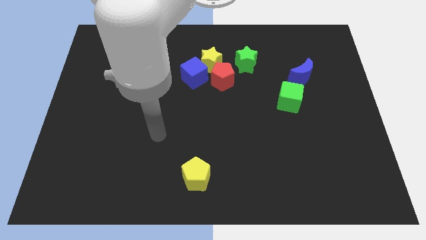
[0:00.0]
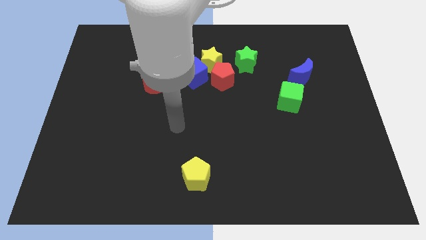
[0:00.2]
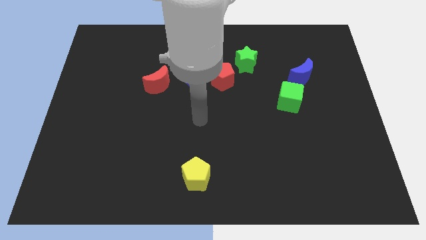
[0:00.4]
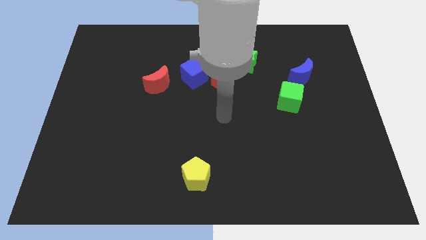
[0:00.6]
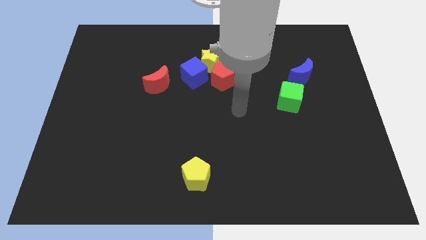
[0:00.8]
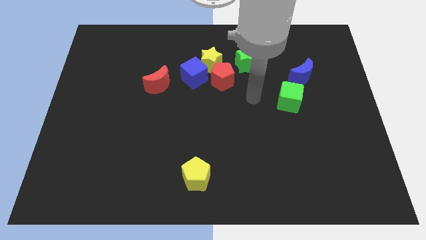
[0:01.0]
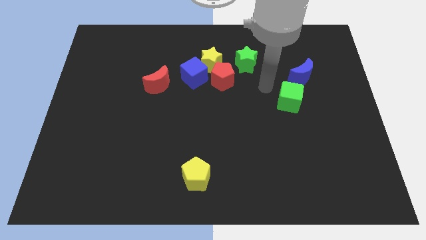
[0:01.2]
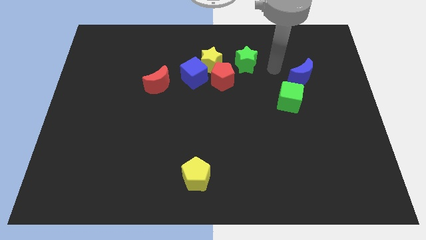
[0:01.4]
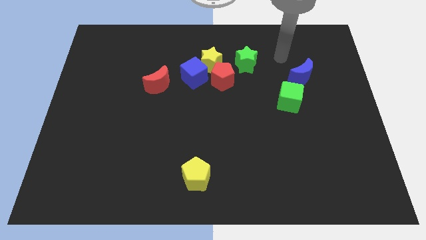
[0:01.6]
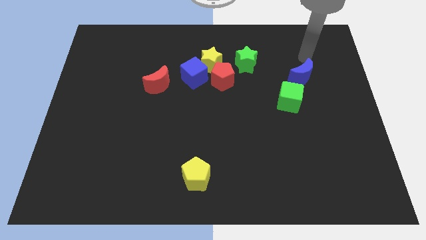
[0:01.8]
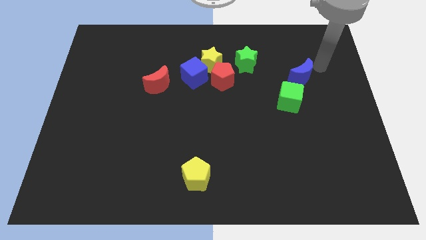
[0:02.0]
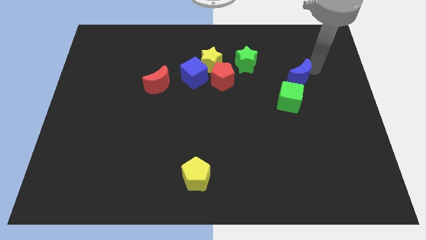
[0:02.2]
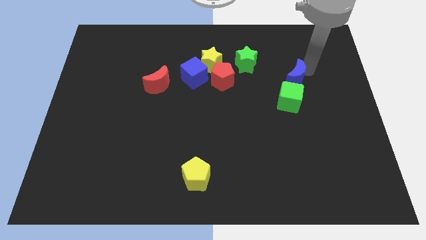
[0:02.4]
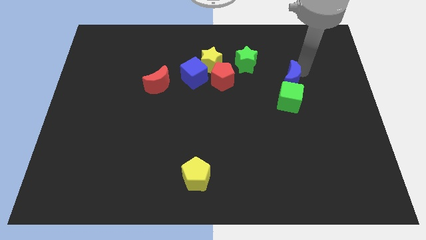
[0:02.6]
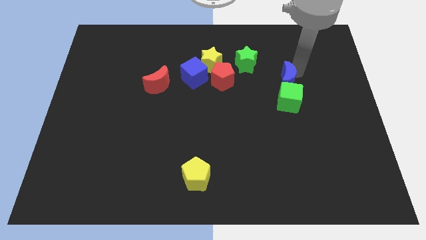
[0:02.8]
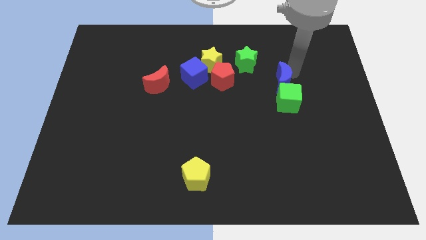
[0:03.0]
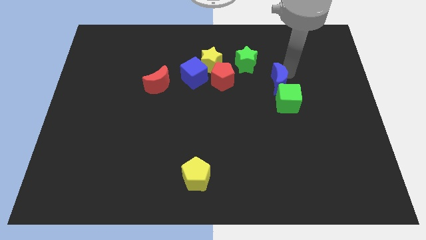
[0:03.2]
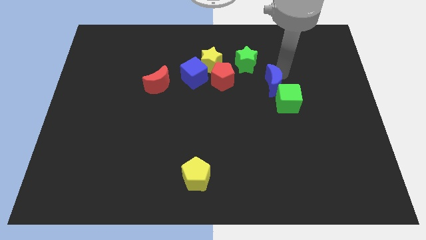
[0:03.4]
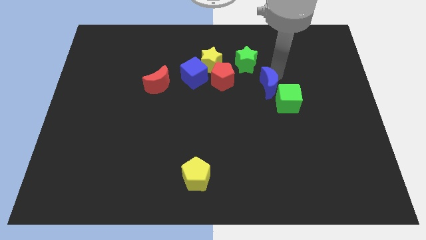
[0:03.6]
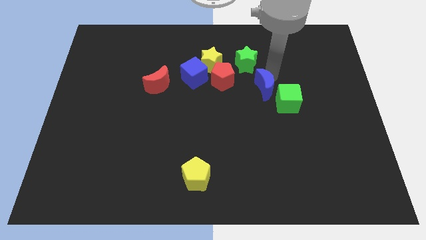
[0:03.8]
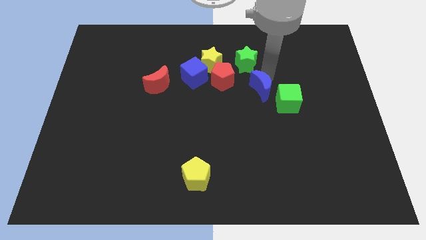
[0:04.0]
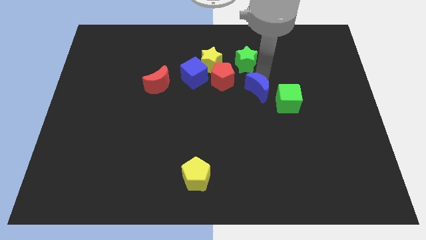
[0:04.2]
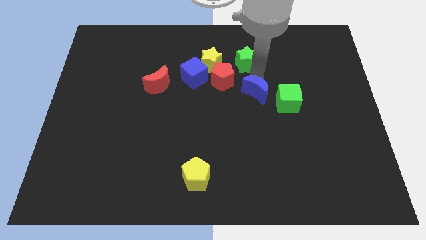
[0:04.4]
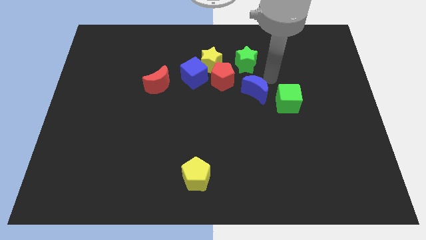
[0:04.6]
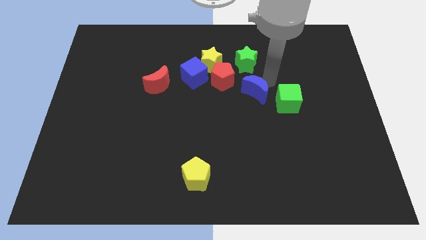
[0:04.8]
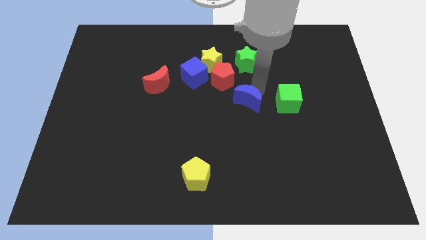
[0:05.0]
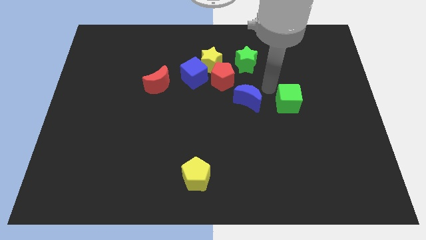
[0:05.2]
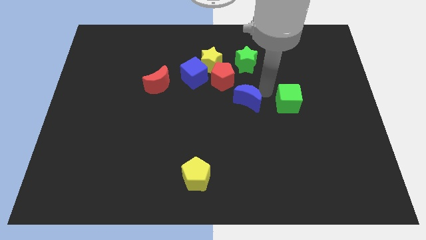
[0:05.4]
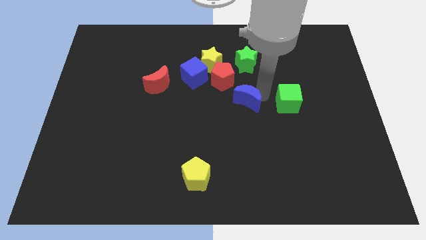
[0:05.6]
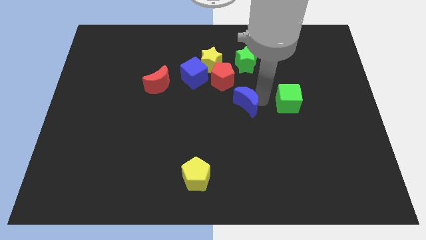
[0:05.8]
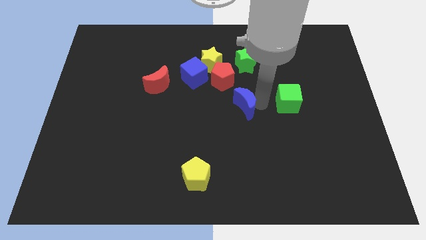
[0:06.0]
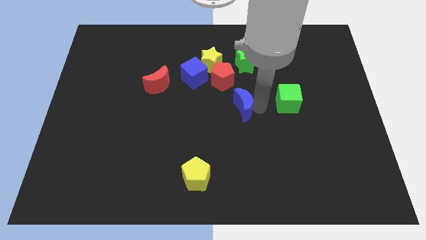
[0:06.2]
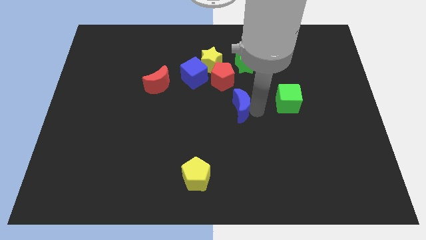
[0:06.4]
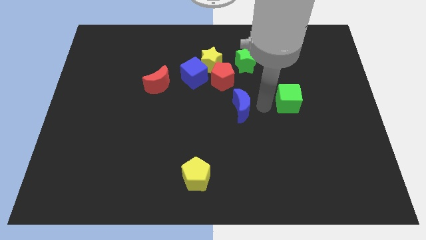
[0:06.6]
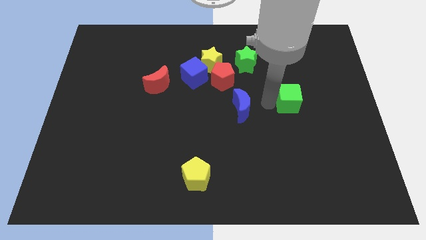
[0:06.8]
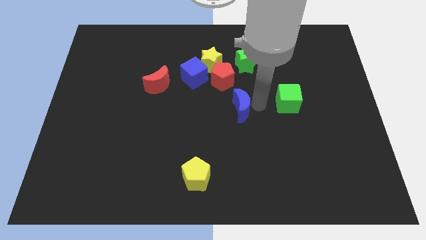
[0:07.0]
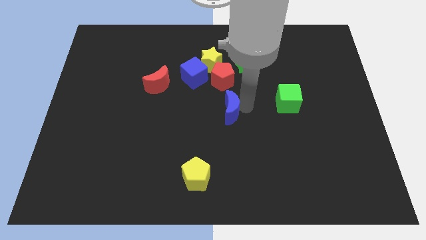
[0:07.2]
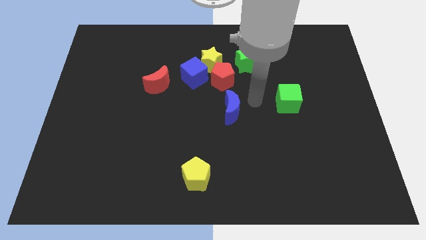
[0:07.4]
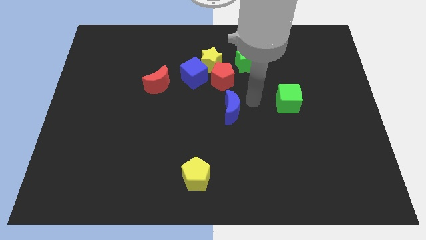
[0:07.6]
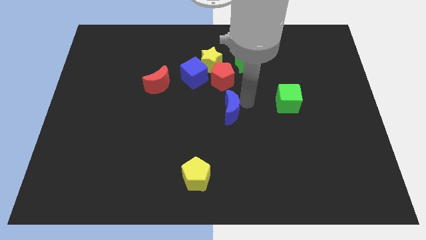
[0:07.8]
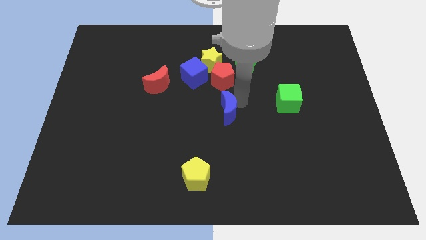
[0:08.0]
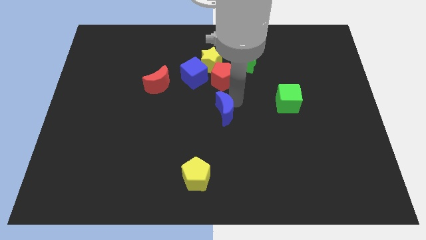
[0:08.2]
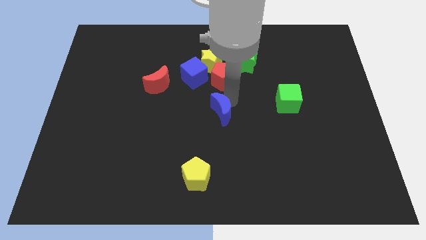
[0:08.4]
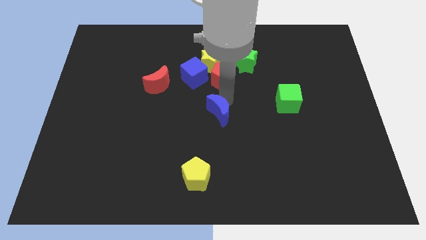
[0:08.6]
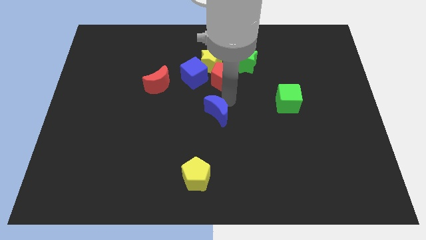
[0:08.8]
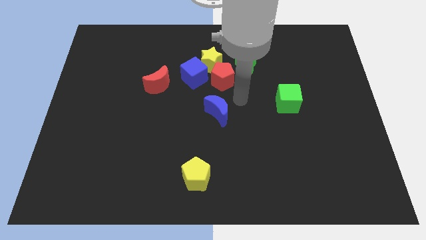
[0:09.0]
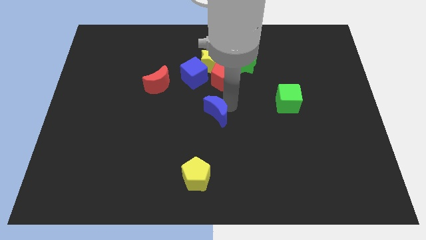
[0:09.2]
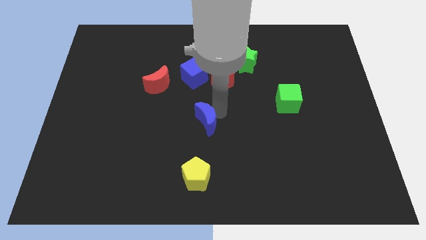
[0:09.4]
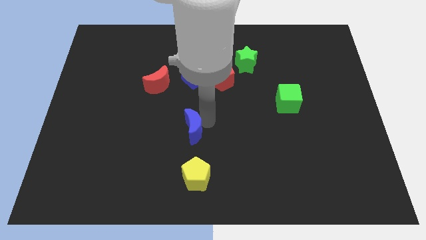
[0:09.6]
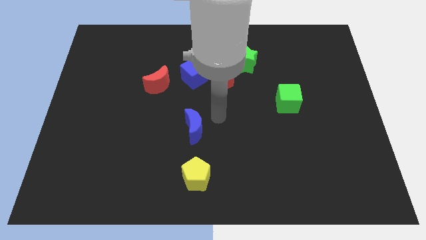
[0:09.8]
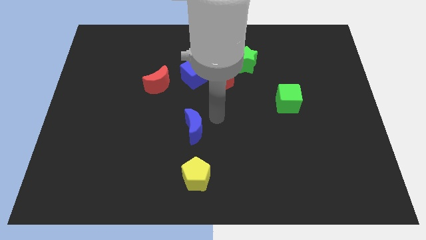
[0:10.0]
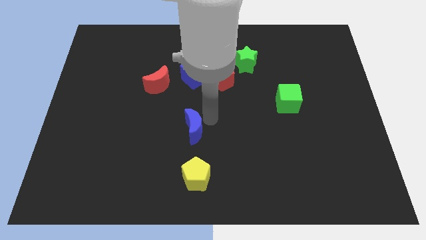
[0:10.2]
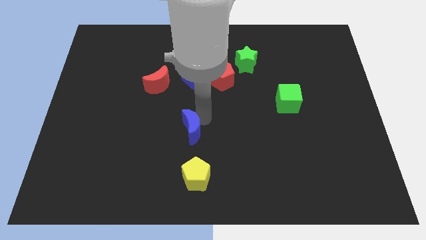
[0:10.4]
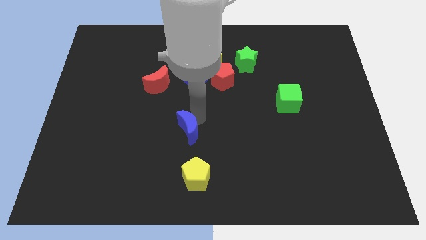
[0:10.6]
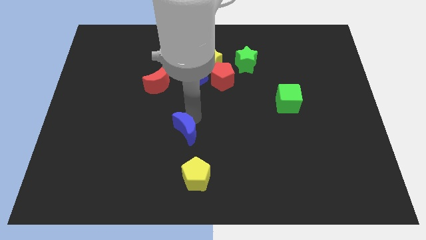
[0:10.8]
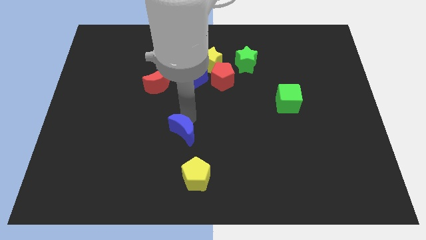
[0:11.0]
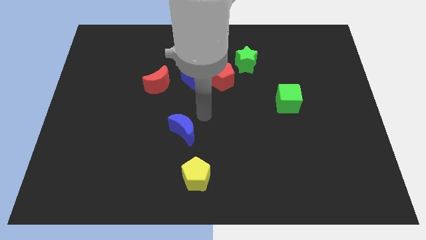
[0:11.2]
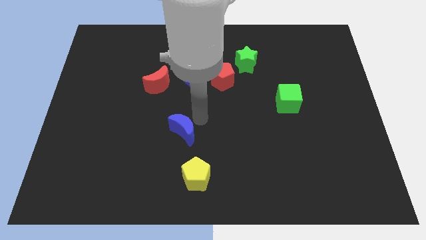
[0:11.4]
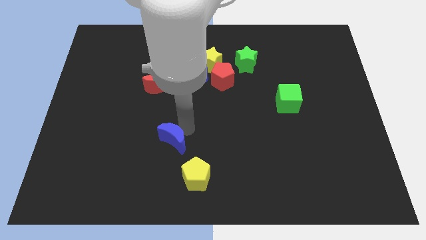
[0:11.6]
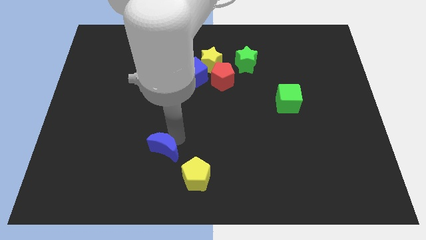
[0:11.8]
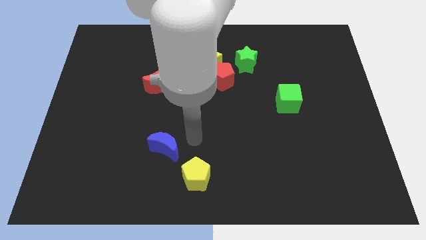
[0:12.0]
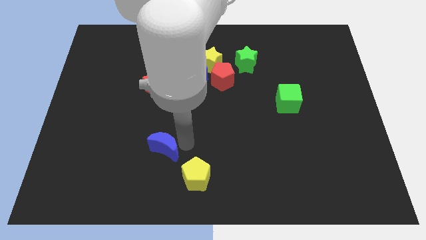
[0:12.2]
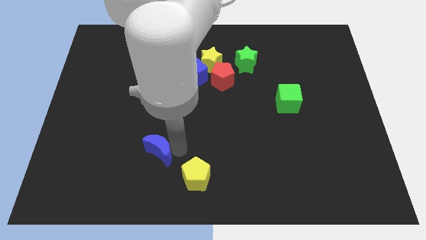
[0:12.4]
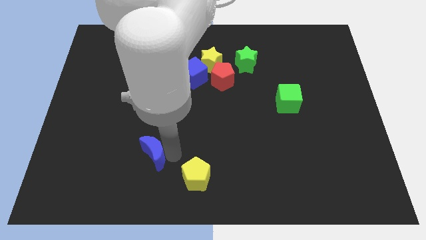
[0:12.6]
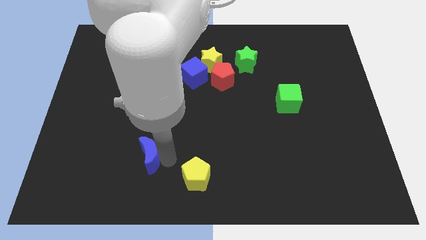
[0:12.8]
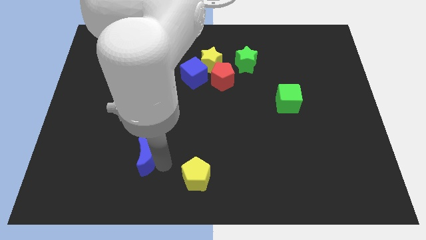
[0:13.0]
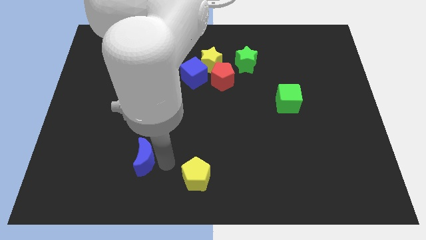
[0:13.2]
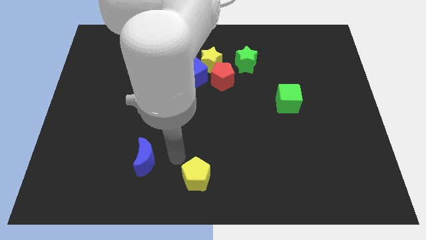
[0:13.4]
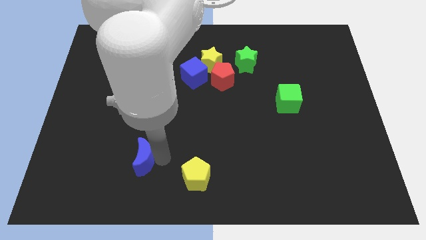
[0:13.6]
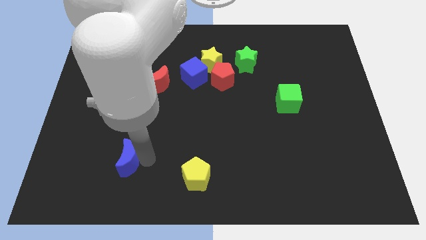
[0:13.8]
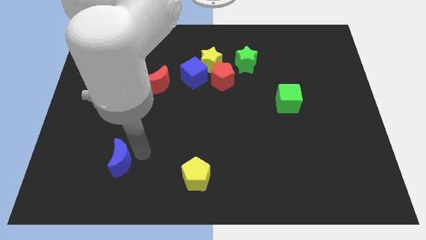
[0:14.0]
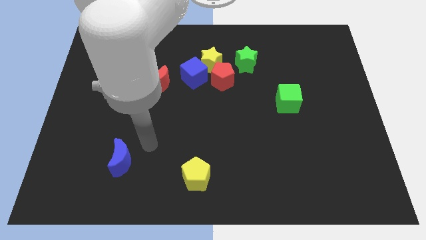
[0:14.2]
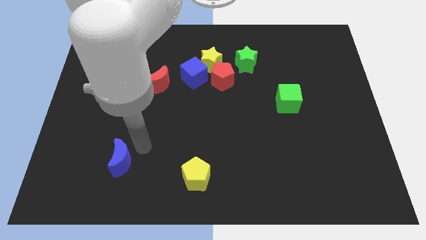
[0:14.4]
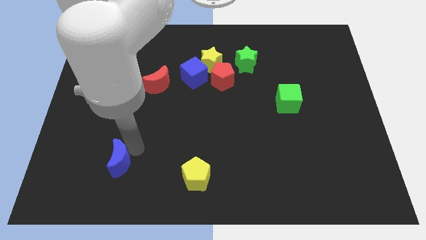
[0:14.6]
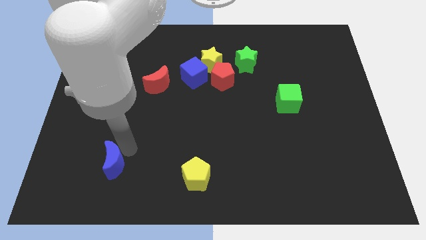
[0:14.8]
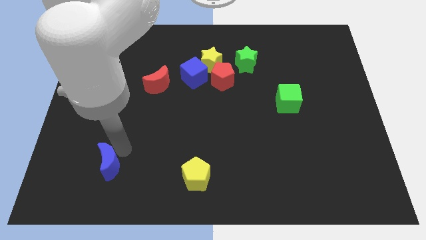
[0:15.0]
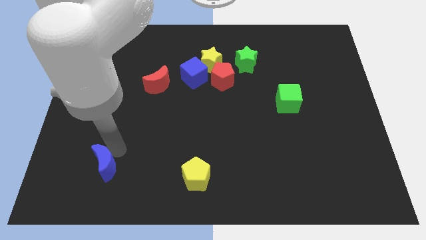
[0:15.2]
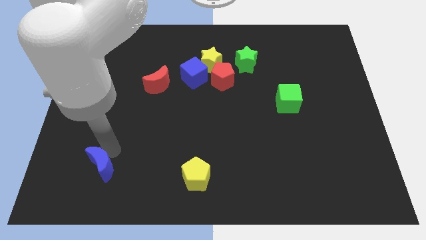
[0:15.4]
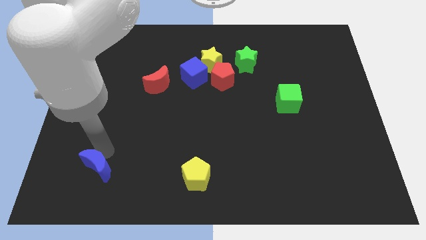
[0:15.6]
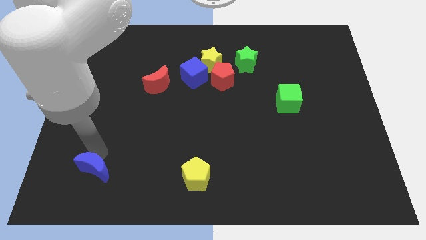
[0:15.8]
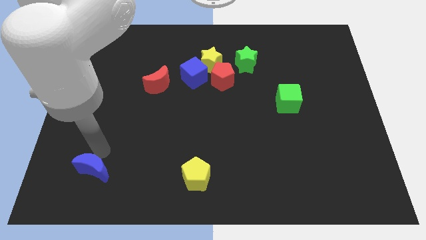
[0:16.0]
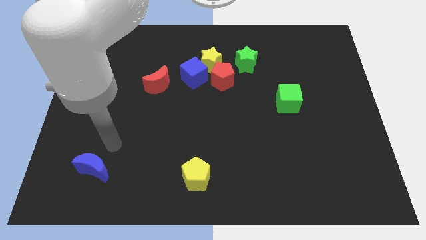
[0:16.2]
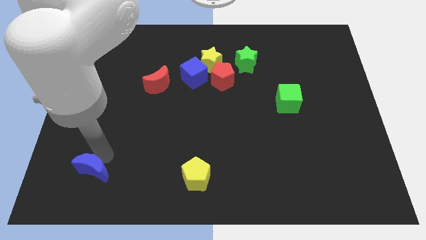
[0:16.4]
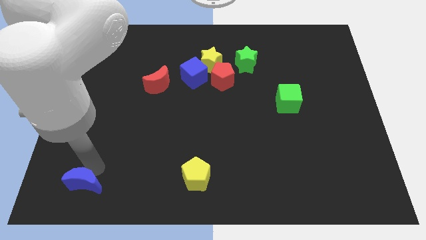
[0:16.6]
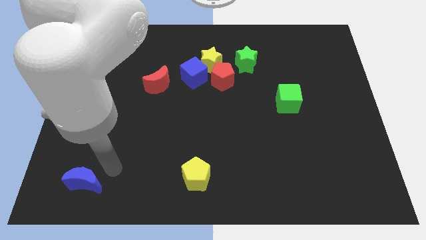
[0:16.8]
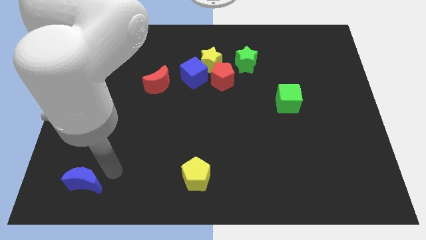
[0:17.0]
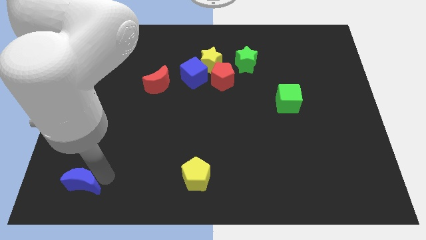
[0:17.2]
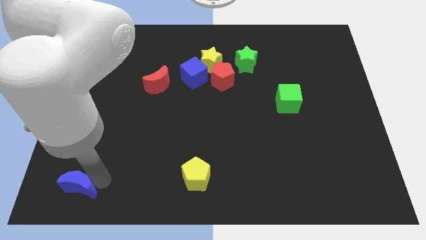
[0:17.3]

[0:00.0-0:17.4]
put the blue moon to the bottom left corner
